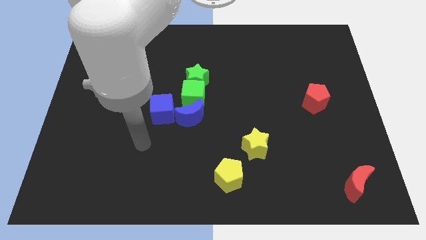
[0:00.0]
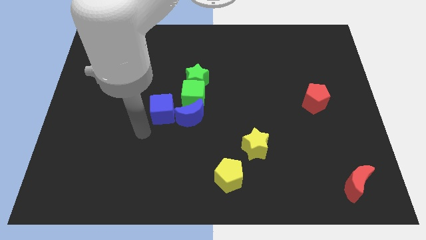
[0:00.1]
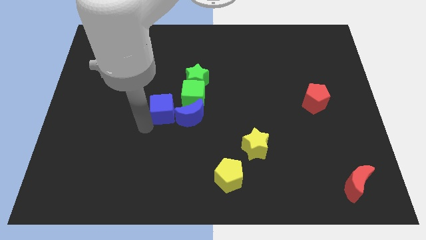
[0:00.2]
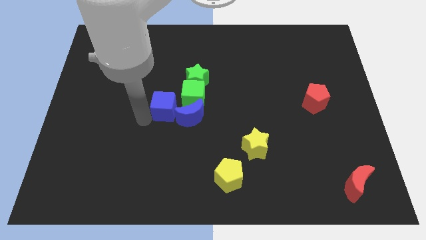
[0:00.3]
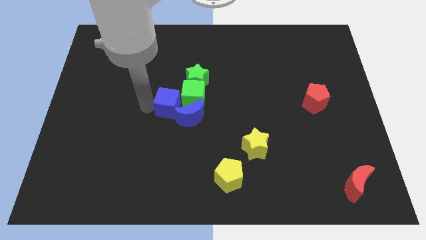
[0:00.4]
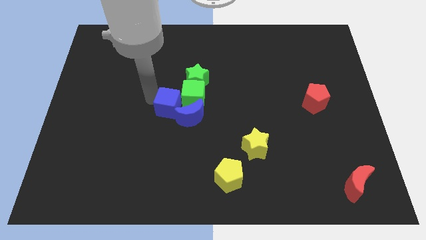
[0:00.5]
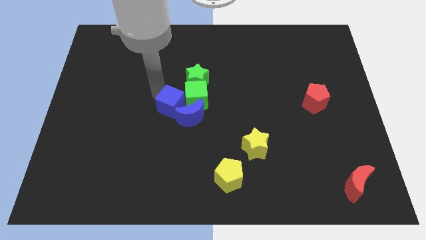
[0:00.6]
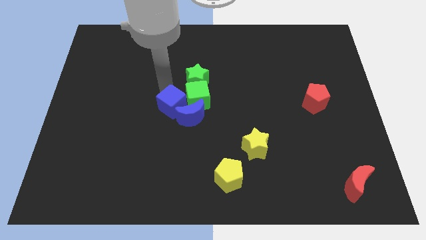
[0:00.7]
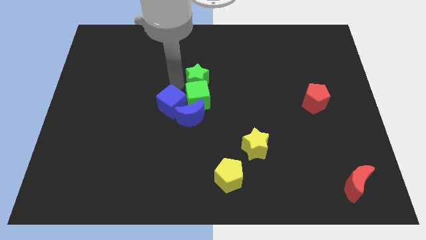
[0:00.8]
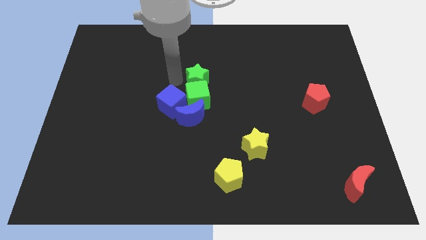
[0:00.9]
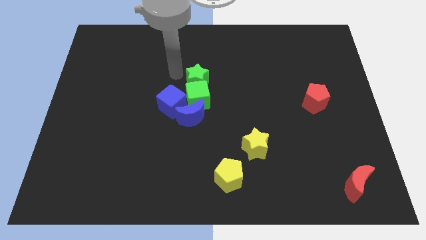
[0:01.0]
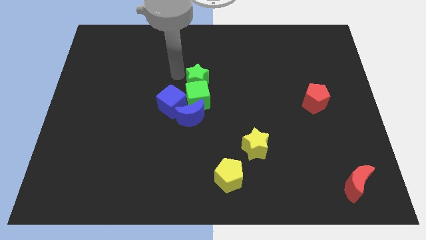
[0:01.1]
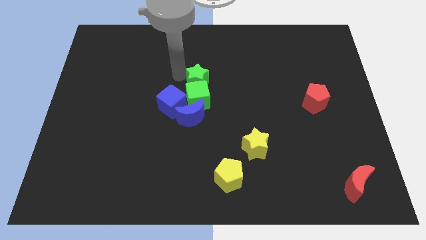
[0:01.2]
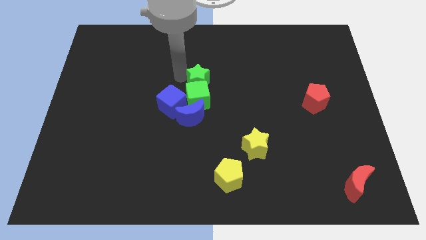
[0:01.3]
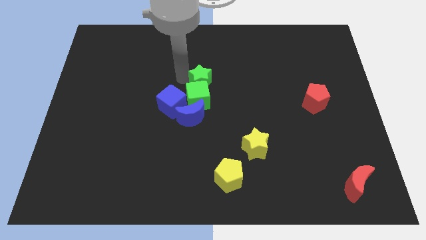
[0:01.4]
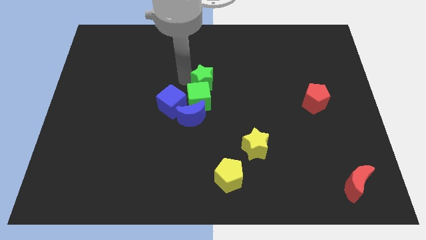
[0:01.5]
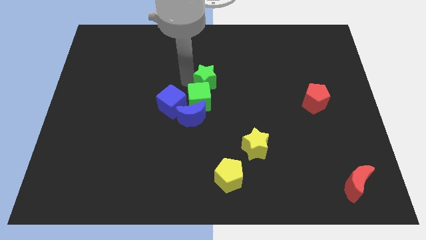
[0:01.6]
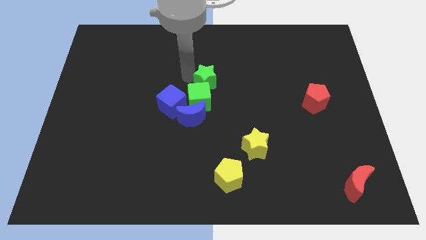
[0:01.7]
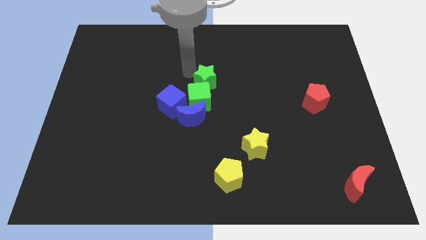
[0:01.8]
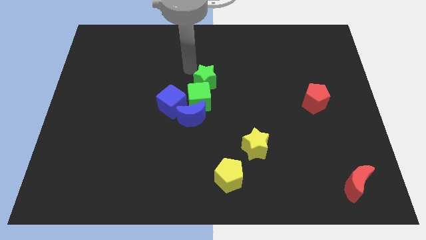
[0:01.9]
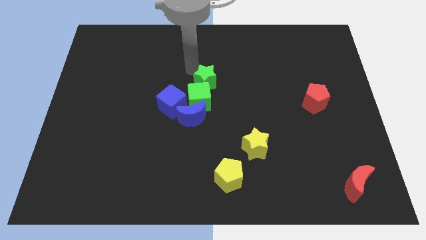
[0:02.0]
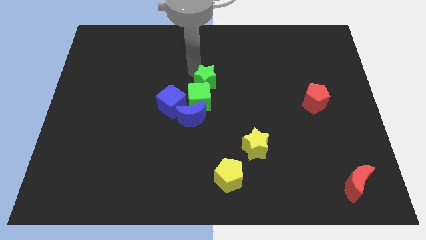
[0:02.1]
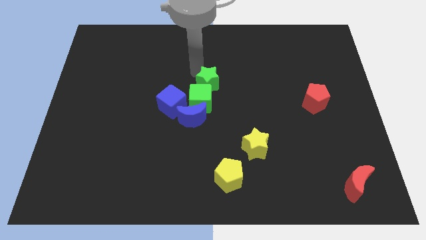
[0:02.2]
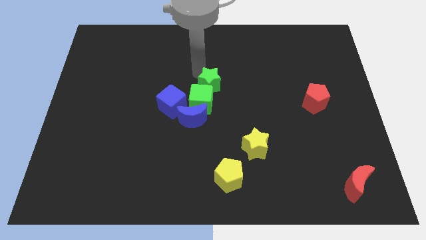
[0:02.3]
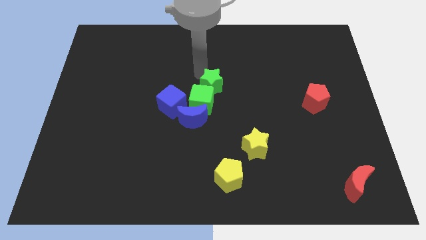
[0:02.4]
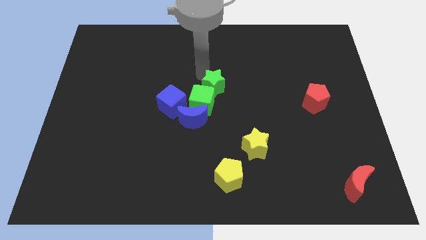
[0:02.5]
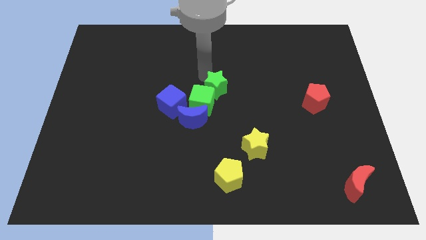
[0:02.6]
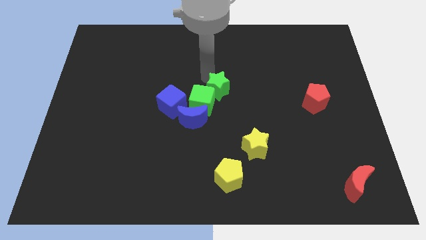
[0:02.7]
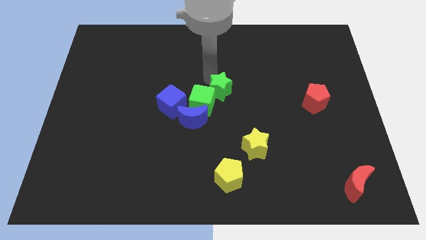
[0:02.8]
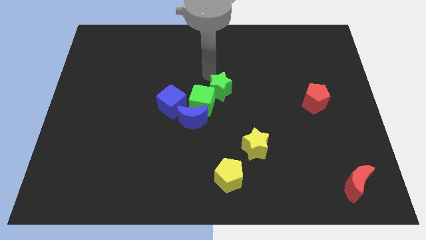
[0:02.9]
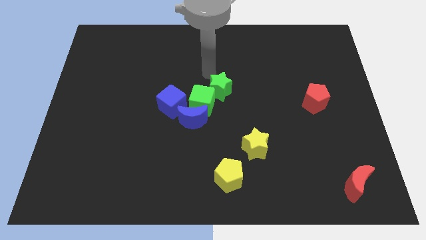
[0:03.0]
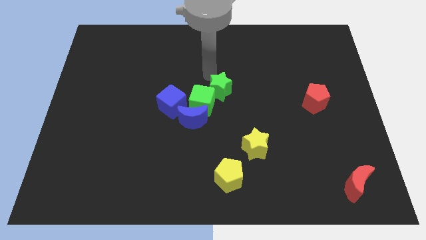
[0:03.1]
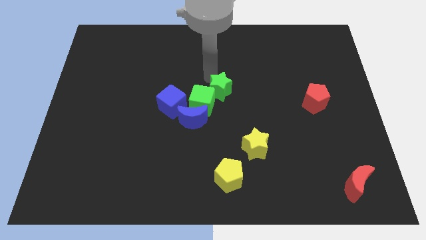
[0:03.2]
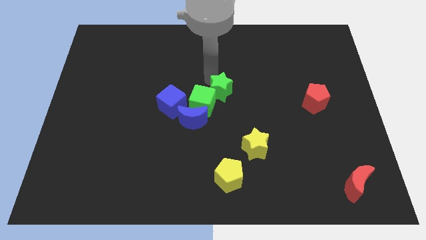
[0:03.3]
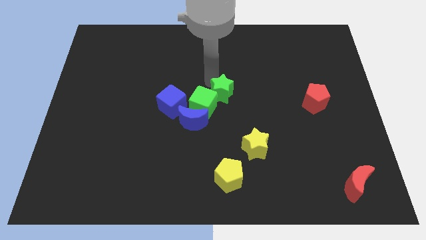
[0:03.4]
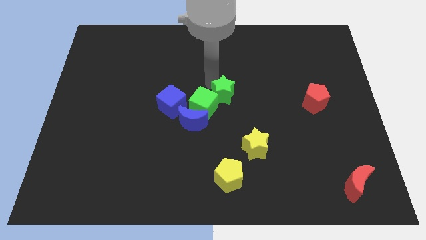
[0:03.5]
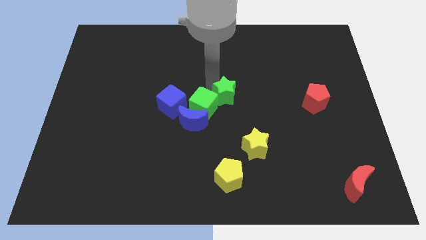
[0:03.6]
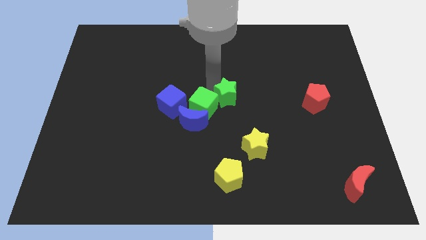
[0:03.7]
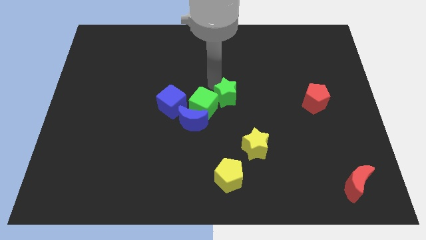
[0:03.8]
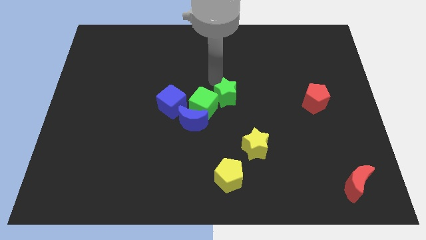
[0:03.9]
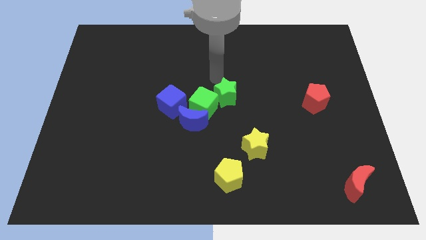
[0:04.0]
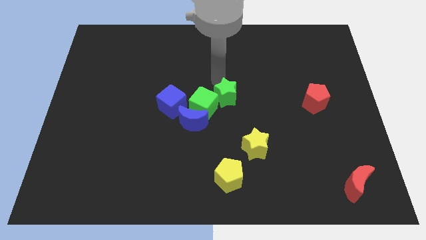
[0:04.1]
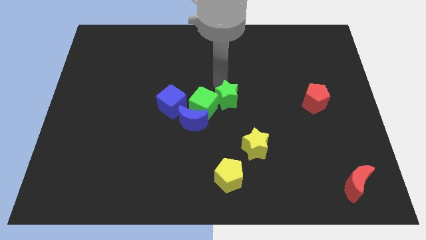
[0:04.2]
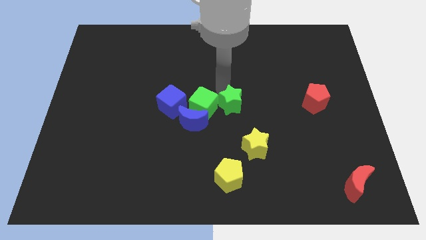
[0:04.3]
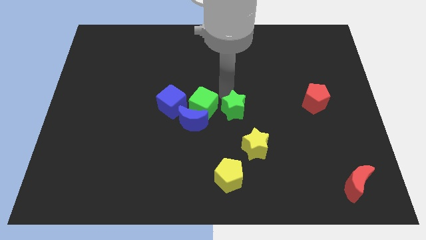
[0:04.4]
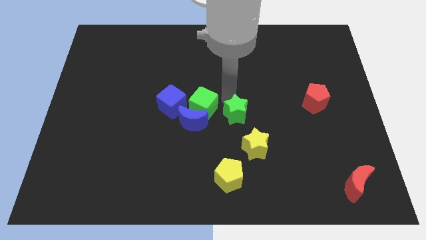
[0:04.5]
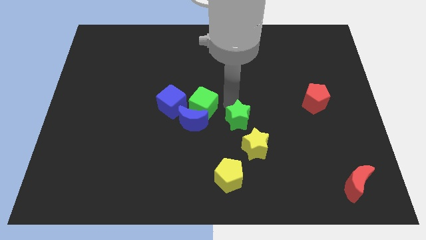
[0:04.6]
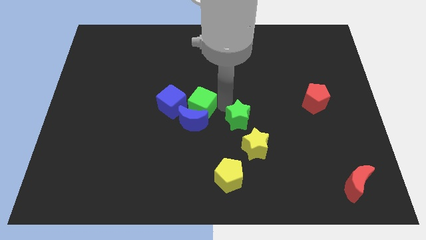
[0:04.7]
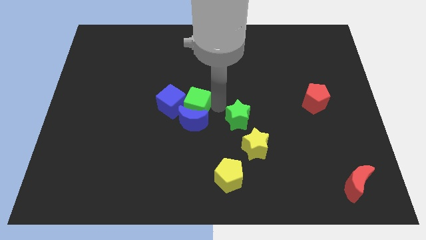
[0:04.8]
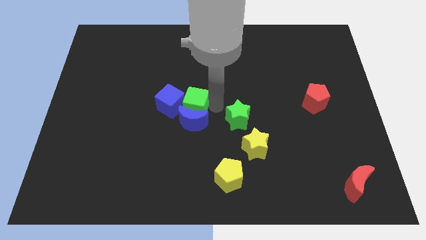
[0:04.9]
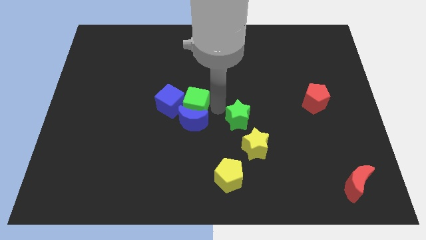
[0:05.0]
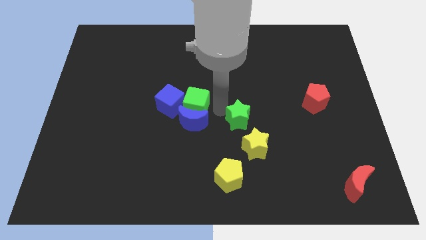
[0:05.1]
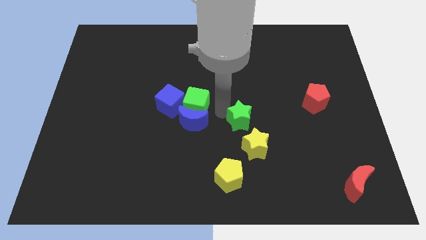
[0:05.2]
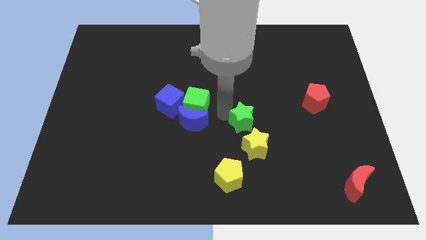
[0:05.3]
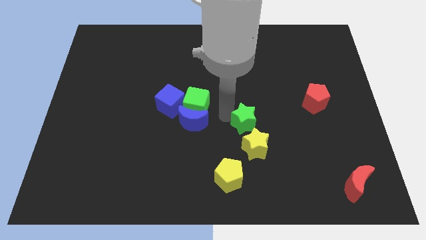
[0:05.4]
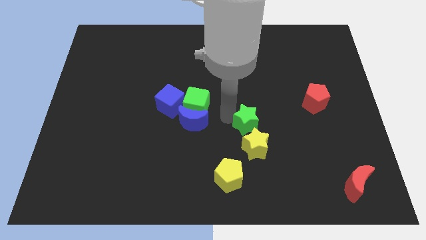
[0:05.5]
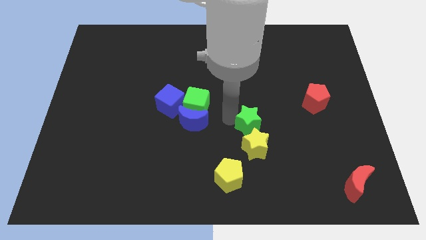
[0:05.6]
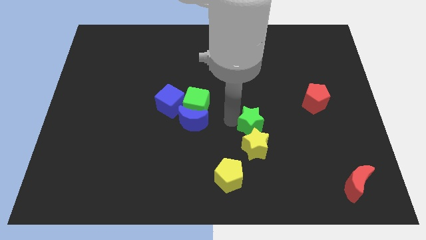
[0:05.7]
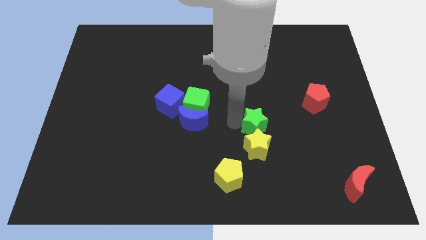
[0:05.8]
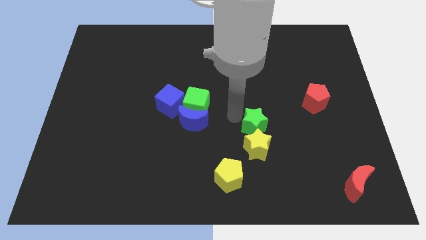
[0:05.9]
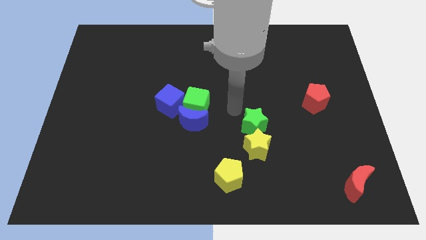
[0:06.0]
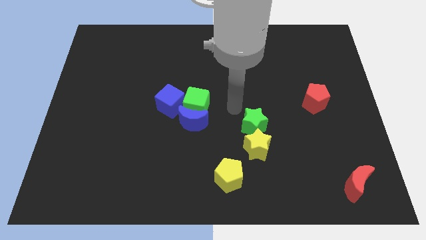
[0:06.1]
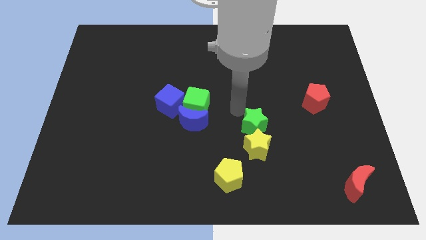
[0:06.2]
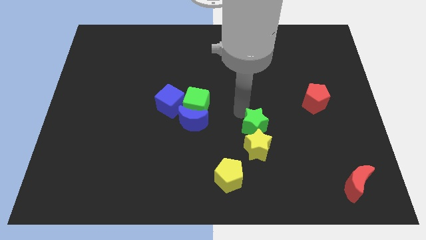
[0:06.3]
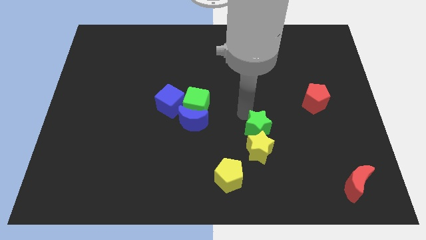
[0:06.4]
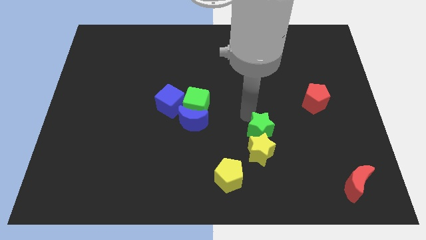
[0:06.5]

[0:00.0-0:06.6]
move the green star downwards and then to the right

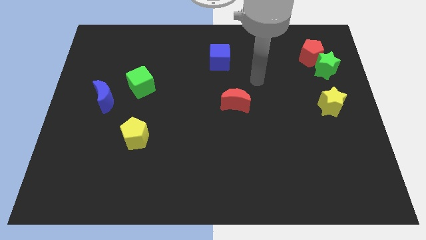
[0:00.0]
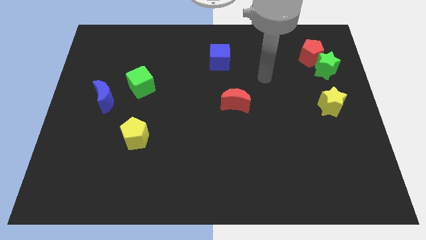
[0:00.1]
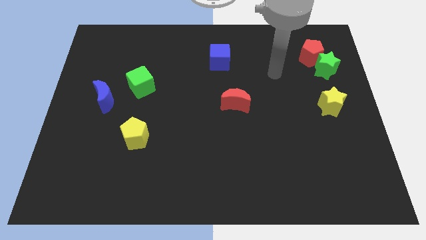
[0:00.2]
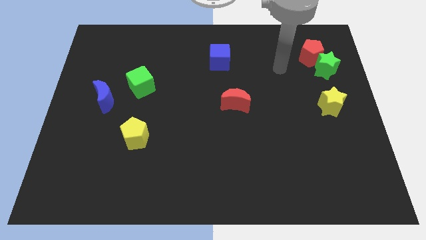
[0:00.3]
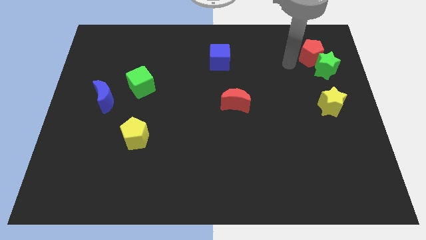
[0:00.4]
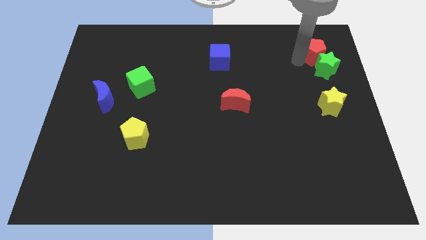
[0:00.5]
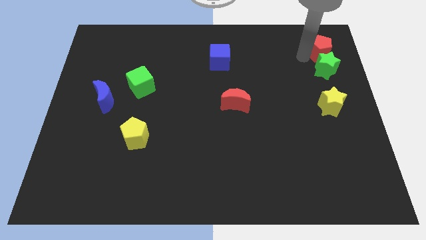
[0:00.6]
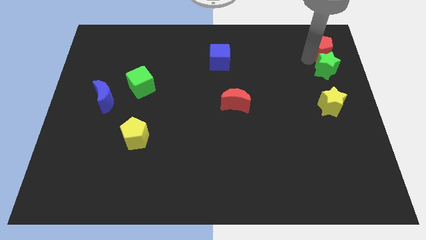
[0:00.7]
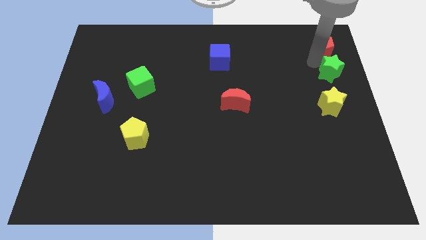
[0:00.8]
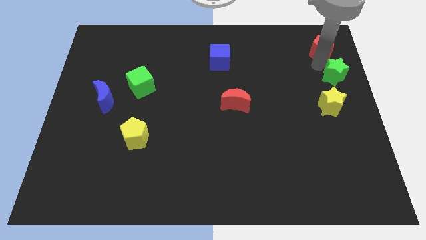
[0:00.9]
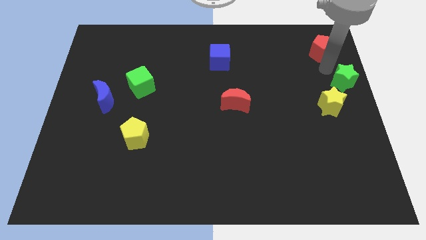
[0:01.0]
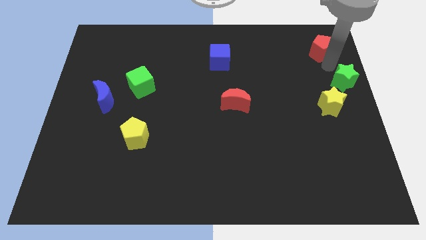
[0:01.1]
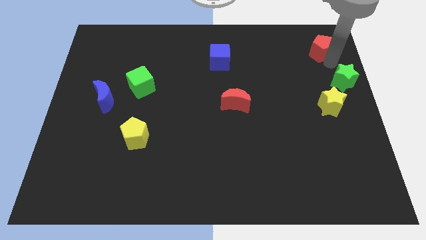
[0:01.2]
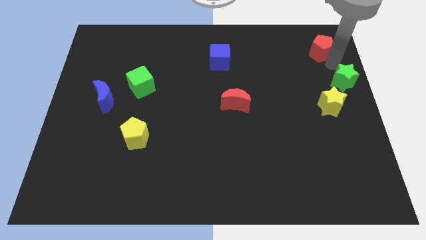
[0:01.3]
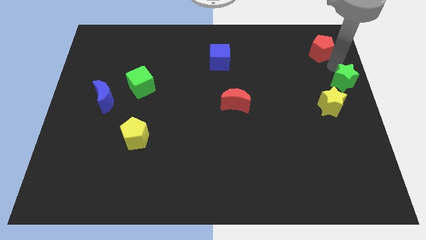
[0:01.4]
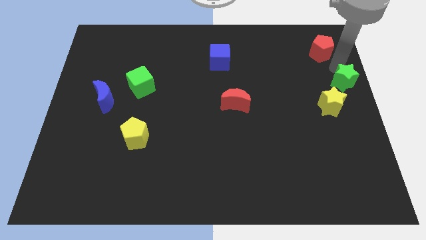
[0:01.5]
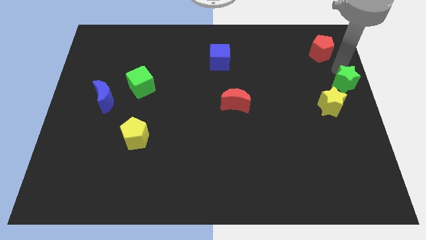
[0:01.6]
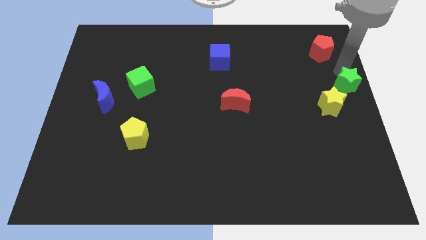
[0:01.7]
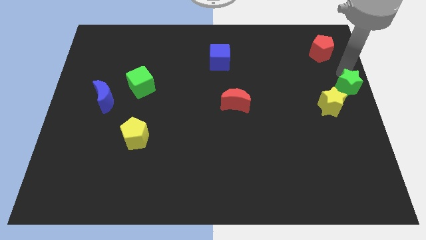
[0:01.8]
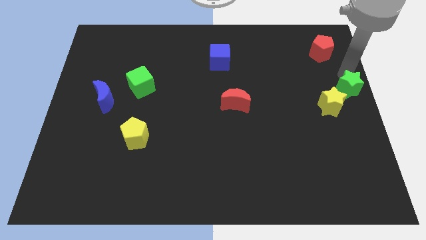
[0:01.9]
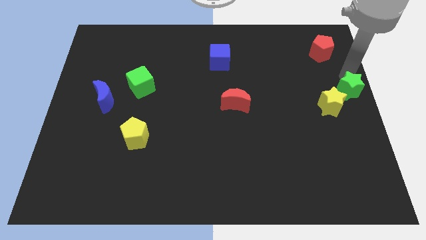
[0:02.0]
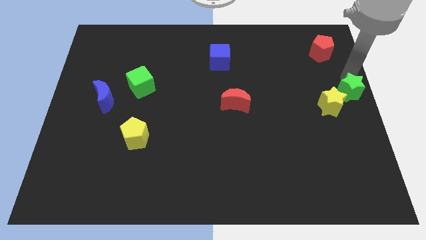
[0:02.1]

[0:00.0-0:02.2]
slide the green star downwards somewhat
